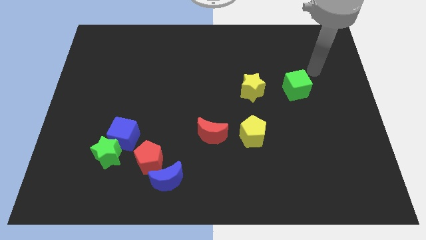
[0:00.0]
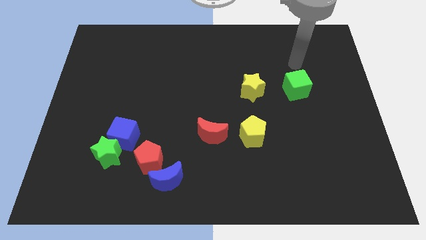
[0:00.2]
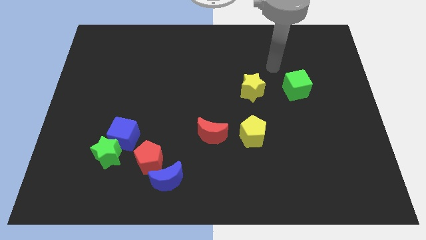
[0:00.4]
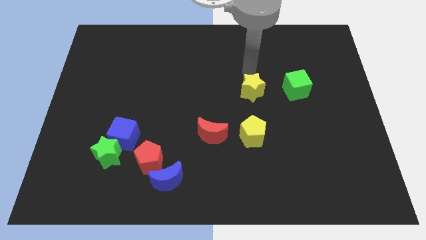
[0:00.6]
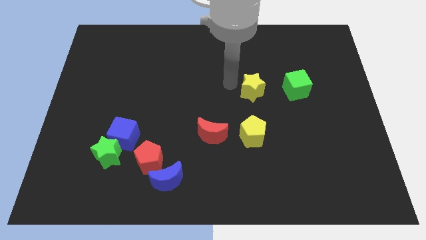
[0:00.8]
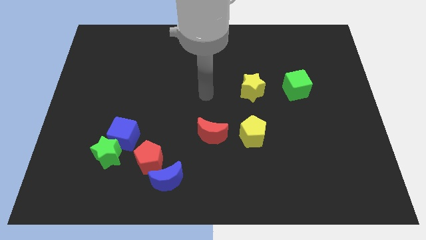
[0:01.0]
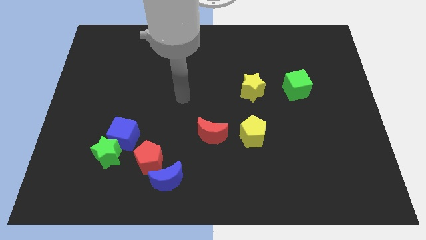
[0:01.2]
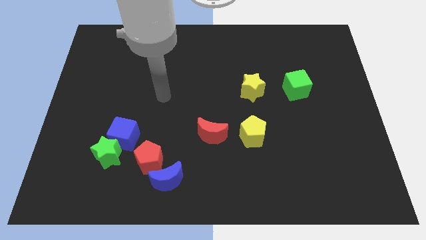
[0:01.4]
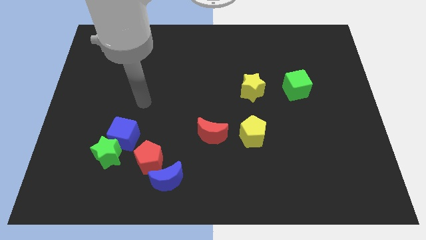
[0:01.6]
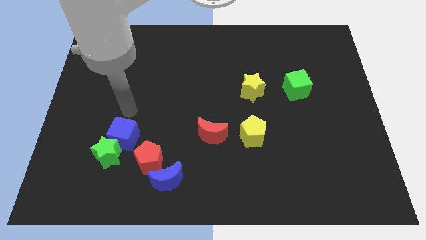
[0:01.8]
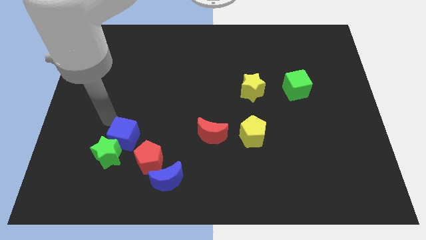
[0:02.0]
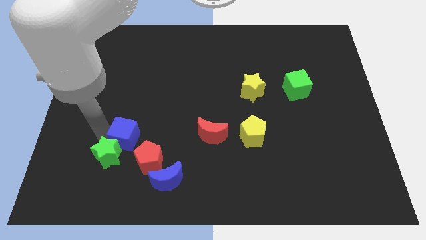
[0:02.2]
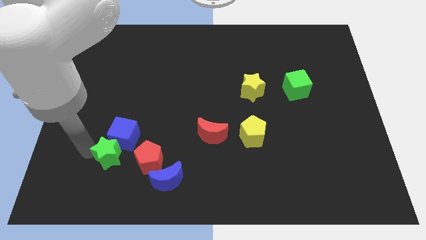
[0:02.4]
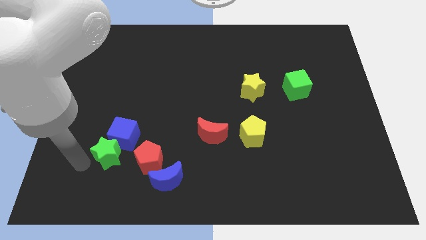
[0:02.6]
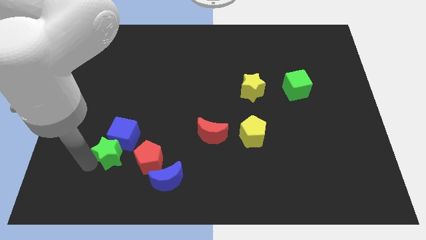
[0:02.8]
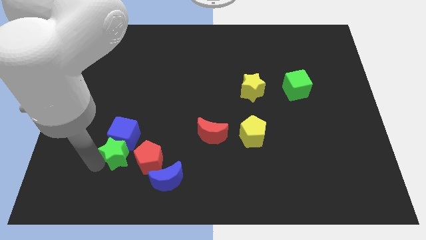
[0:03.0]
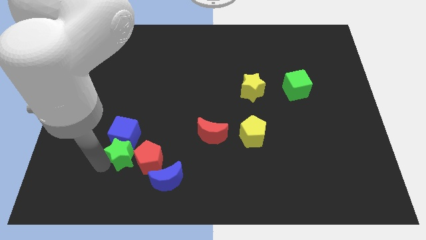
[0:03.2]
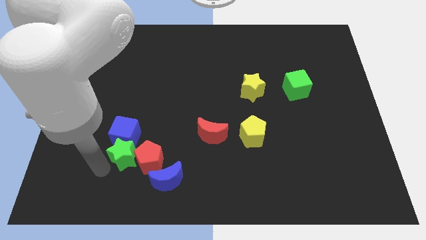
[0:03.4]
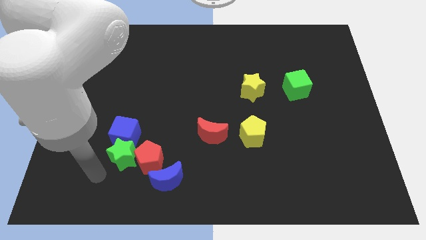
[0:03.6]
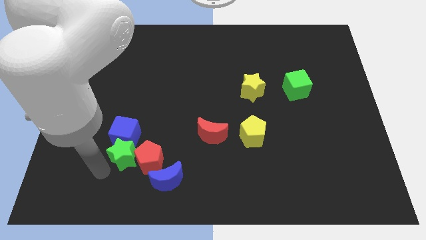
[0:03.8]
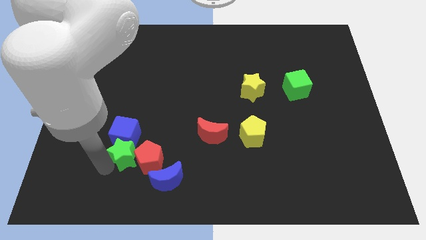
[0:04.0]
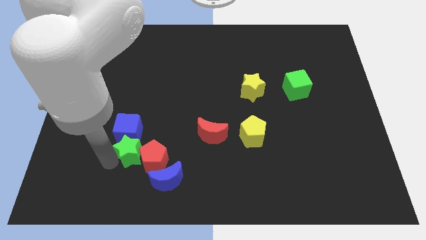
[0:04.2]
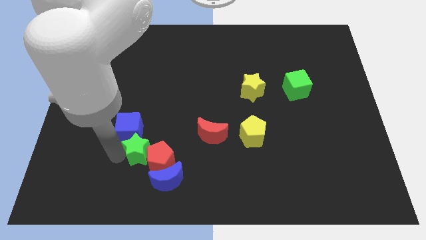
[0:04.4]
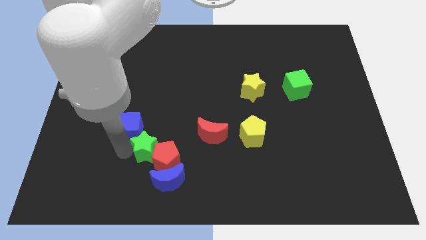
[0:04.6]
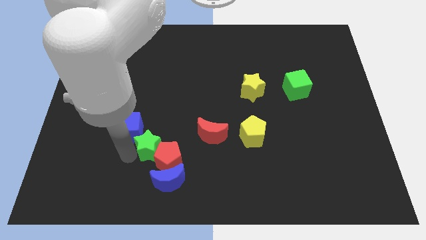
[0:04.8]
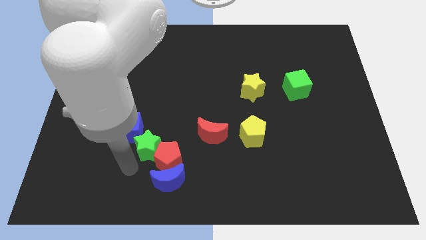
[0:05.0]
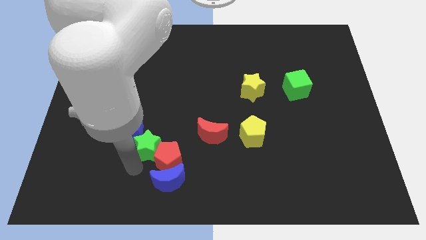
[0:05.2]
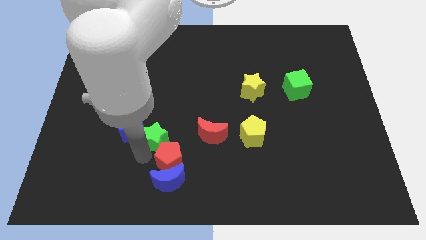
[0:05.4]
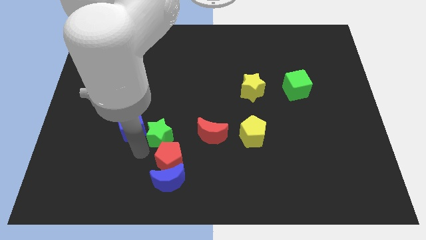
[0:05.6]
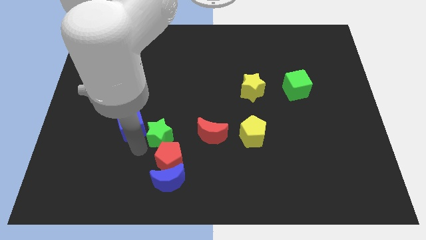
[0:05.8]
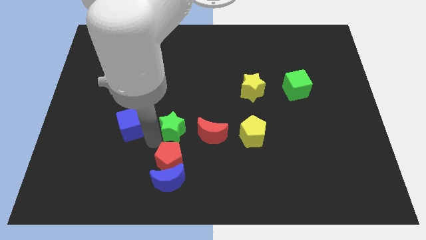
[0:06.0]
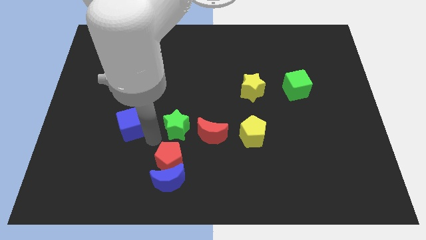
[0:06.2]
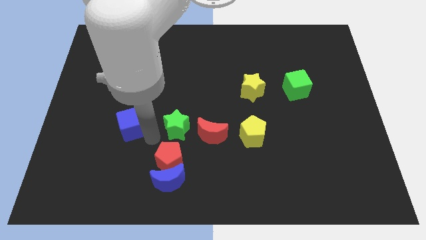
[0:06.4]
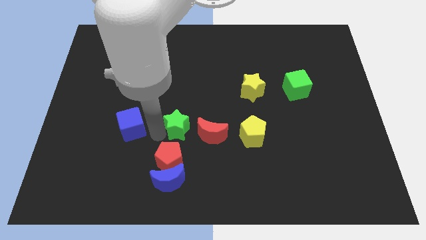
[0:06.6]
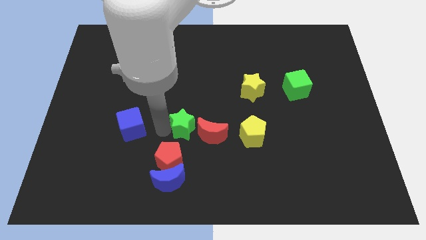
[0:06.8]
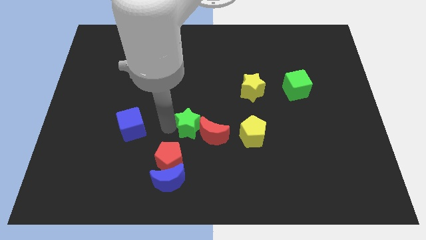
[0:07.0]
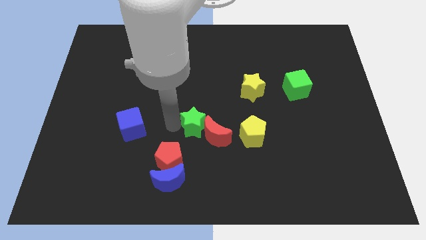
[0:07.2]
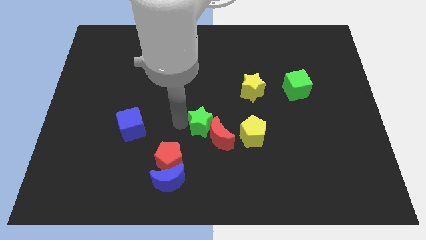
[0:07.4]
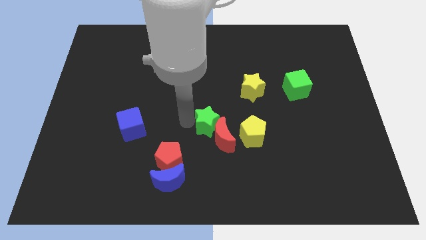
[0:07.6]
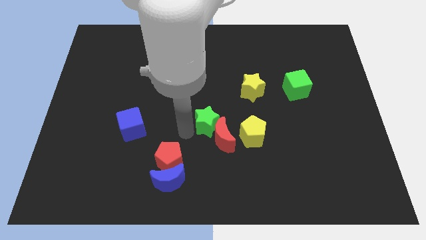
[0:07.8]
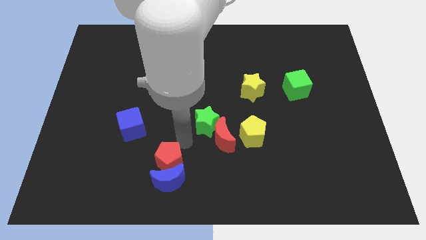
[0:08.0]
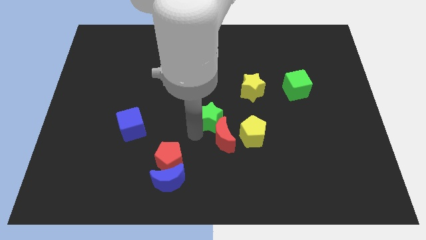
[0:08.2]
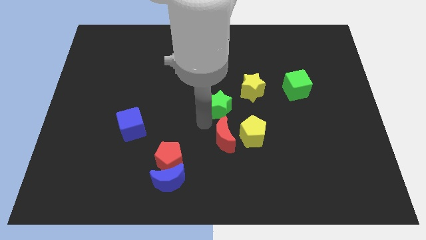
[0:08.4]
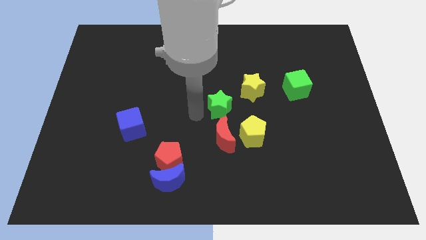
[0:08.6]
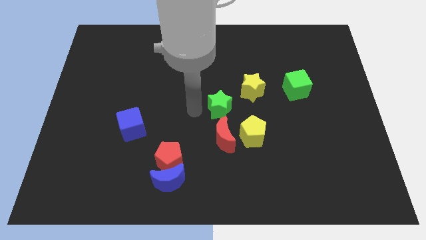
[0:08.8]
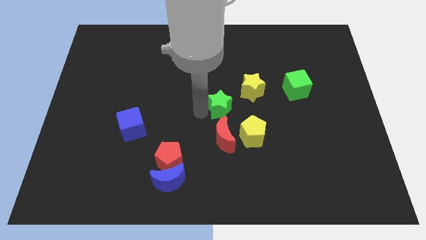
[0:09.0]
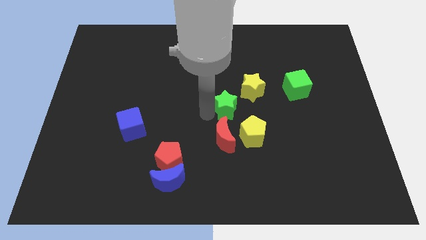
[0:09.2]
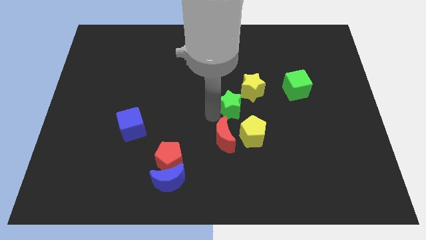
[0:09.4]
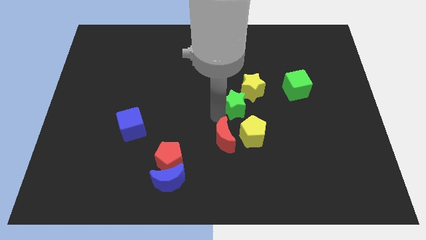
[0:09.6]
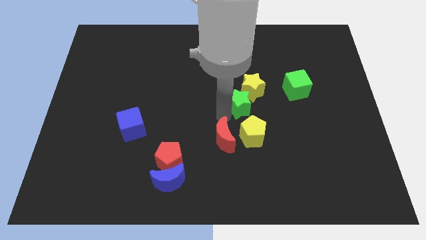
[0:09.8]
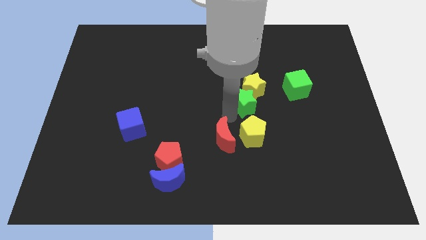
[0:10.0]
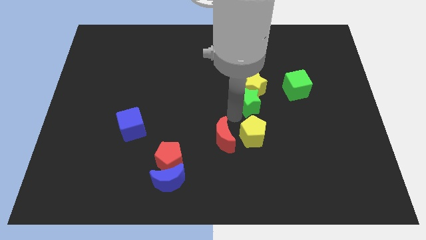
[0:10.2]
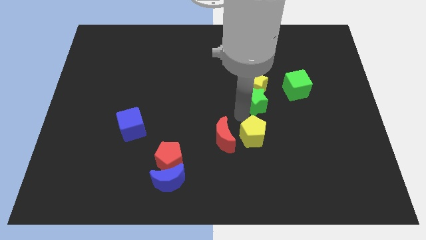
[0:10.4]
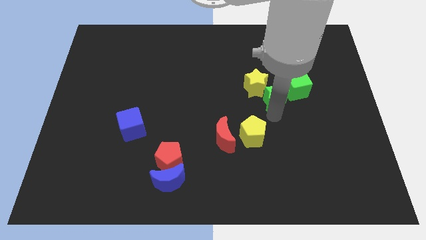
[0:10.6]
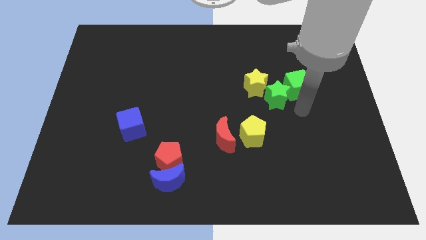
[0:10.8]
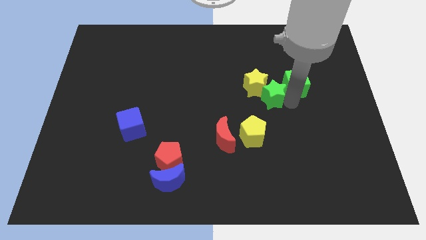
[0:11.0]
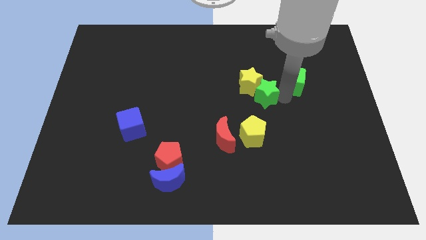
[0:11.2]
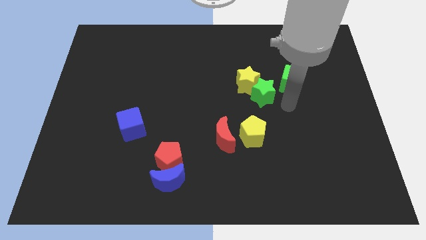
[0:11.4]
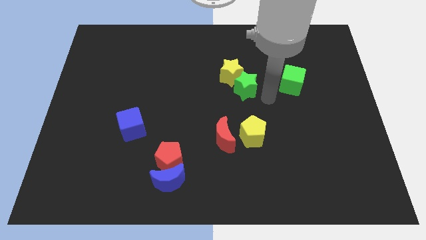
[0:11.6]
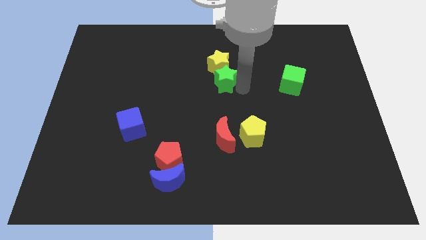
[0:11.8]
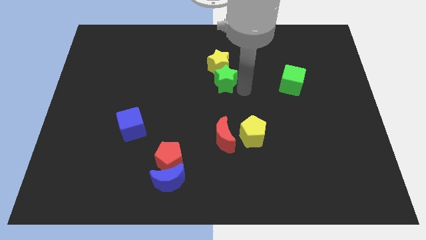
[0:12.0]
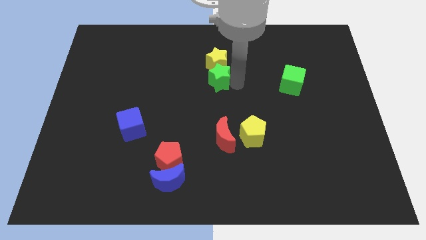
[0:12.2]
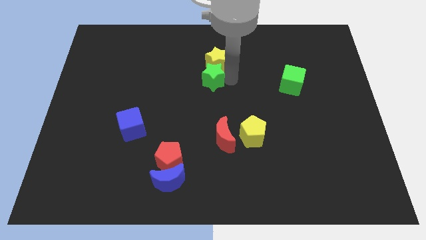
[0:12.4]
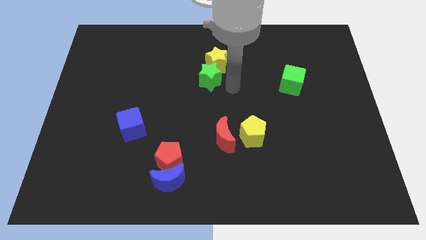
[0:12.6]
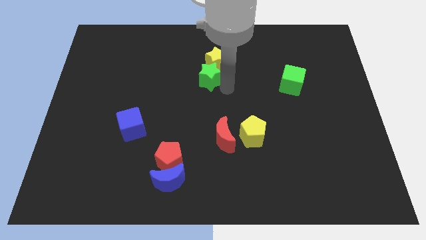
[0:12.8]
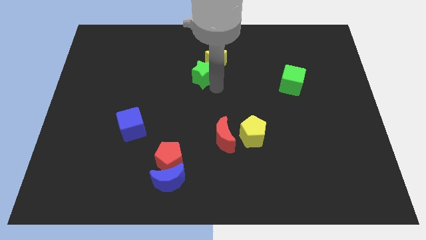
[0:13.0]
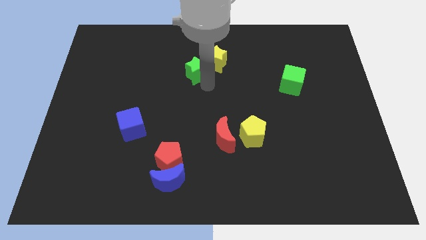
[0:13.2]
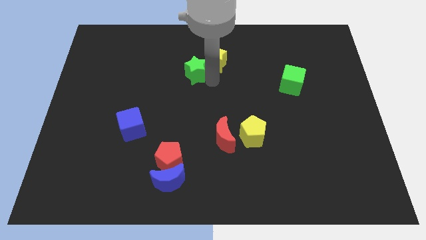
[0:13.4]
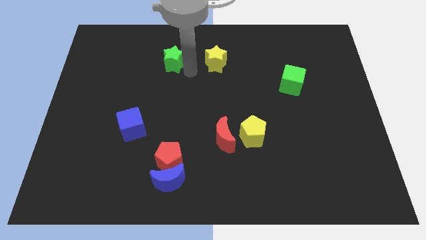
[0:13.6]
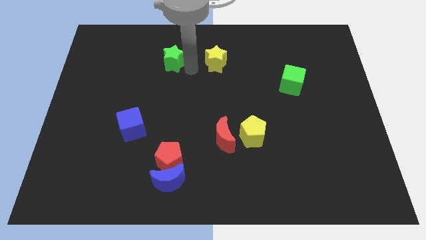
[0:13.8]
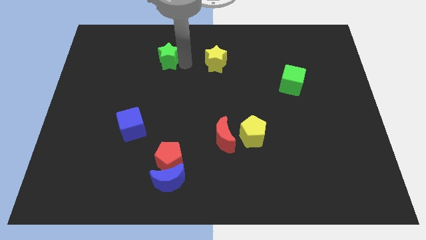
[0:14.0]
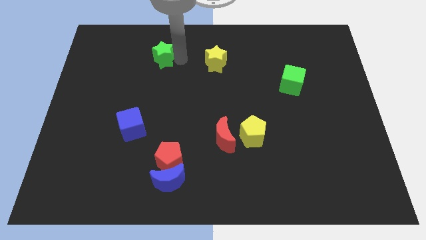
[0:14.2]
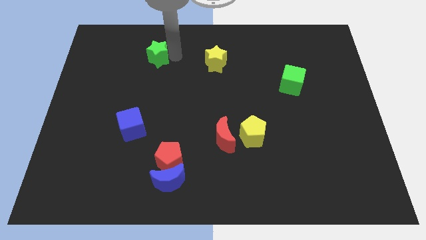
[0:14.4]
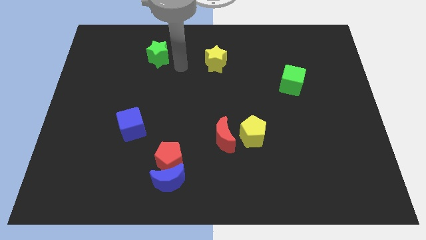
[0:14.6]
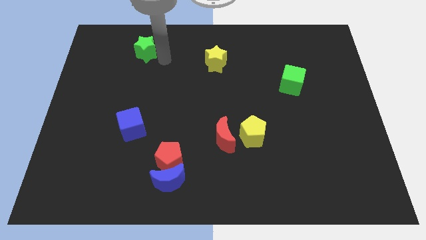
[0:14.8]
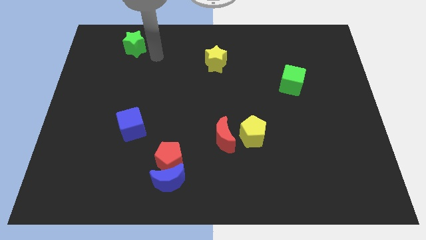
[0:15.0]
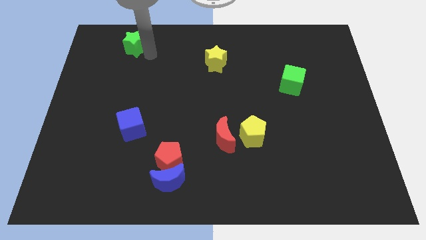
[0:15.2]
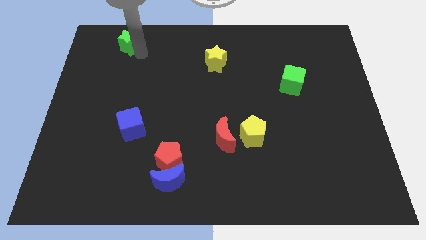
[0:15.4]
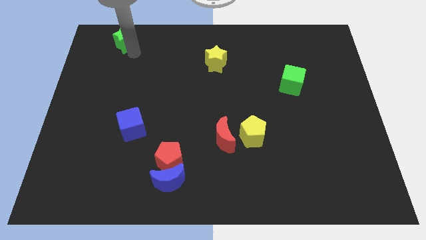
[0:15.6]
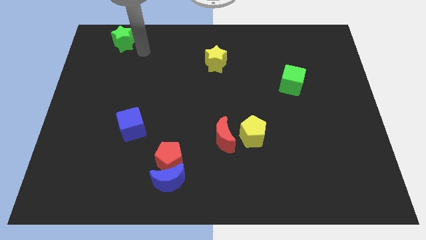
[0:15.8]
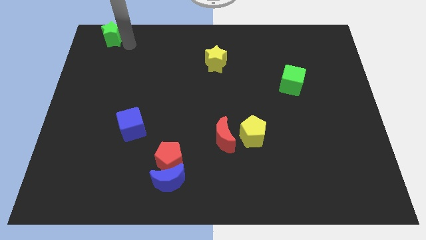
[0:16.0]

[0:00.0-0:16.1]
put the green star to the top left of the board
